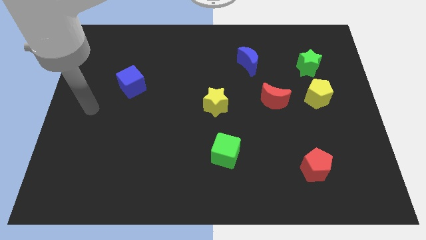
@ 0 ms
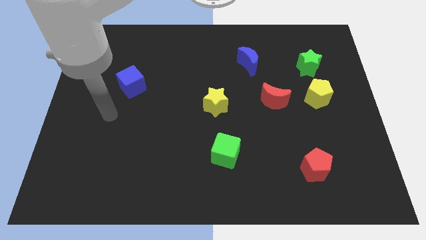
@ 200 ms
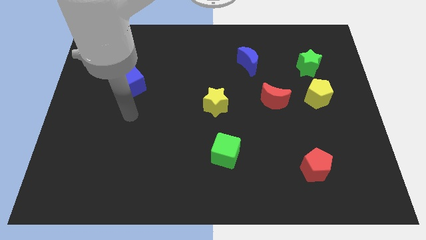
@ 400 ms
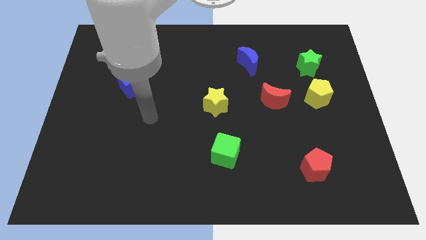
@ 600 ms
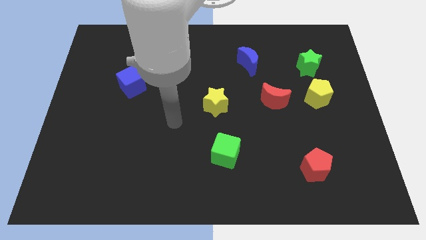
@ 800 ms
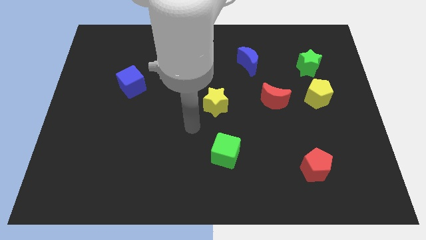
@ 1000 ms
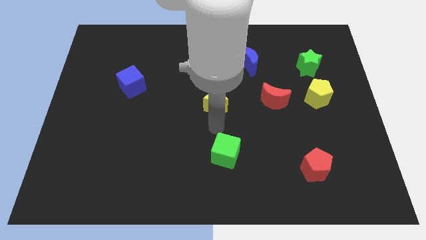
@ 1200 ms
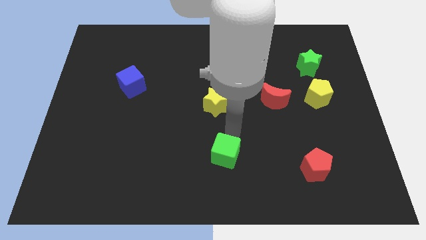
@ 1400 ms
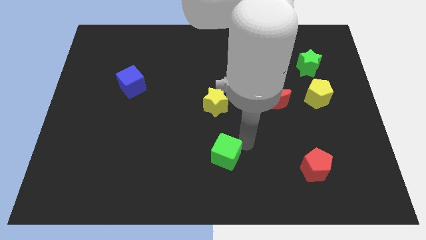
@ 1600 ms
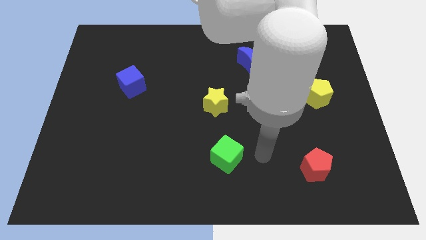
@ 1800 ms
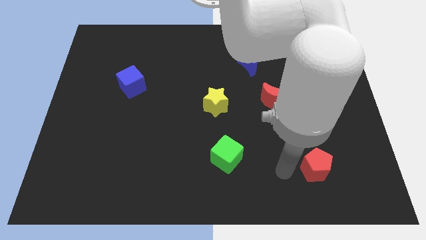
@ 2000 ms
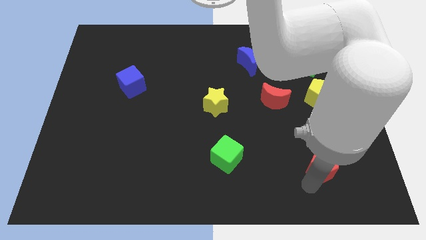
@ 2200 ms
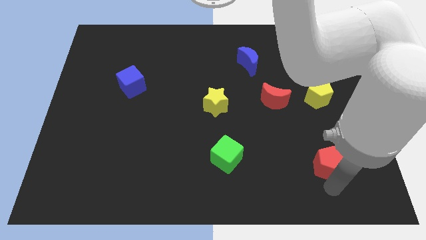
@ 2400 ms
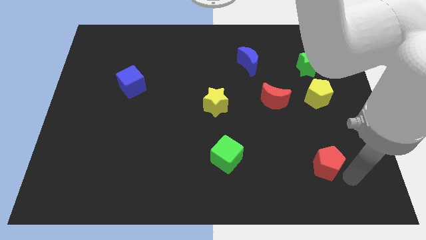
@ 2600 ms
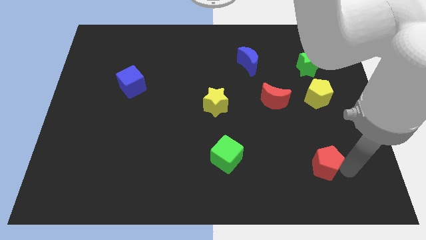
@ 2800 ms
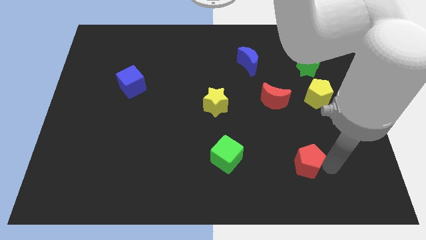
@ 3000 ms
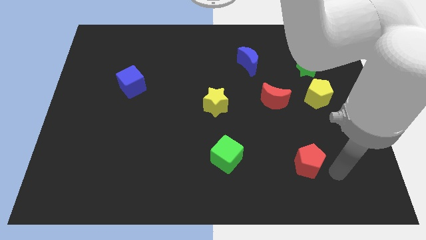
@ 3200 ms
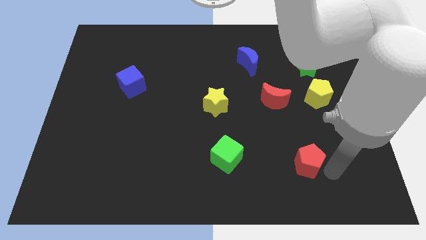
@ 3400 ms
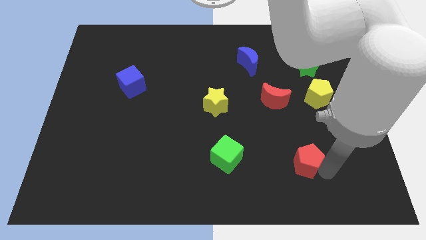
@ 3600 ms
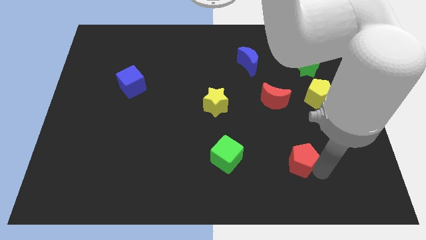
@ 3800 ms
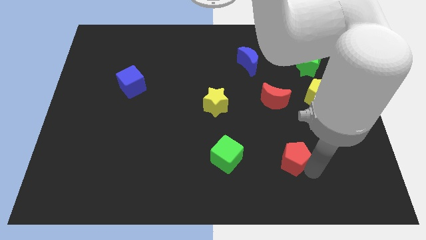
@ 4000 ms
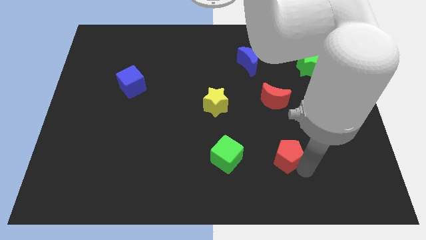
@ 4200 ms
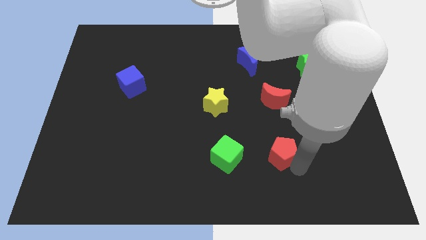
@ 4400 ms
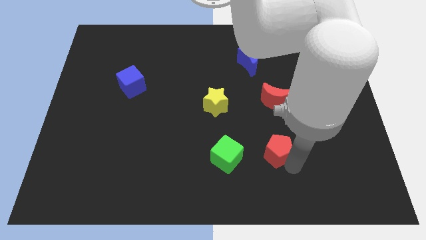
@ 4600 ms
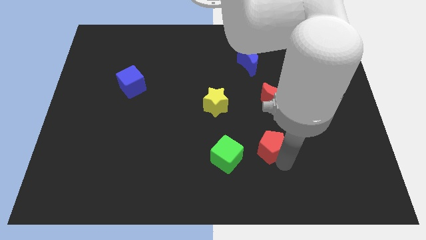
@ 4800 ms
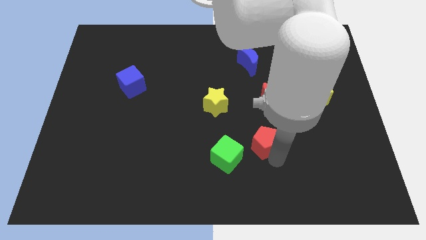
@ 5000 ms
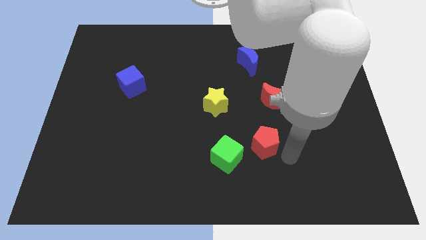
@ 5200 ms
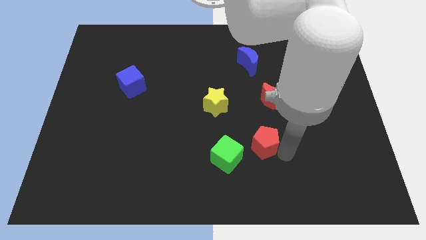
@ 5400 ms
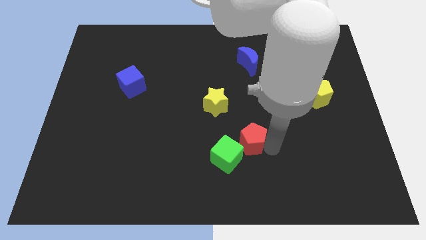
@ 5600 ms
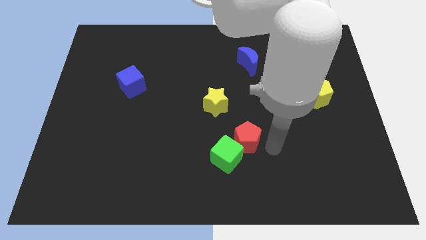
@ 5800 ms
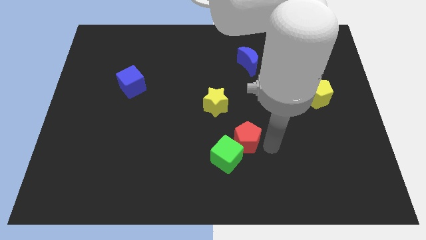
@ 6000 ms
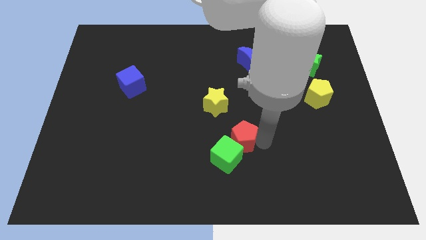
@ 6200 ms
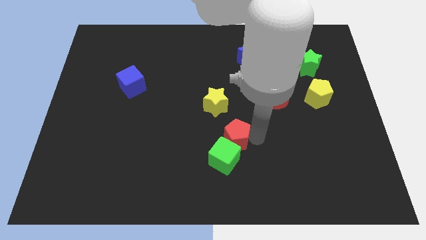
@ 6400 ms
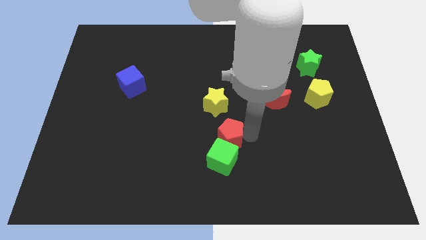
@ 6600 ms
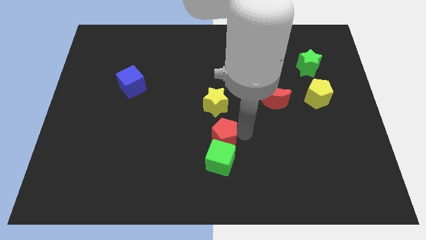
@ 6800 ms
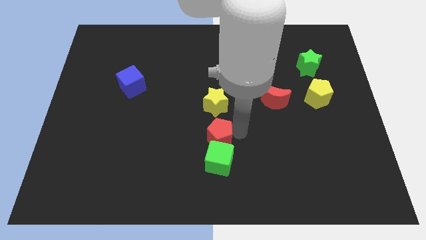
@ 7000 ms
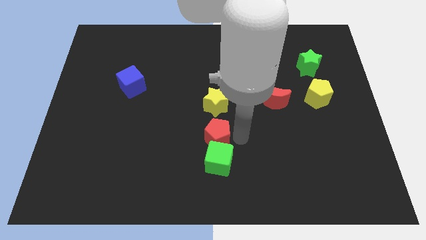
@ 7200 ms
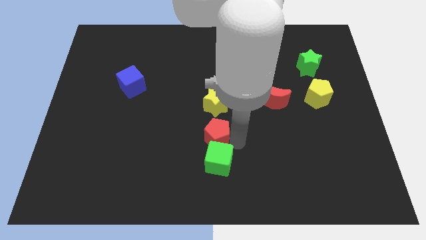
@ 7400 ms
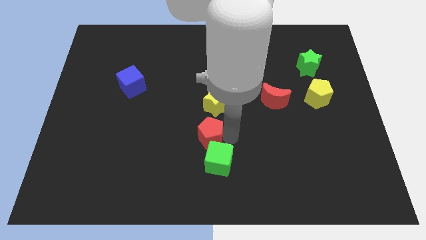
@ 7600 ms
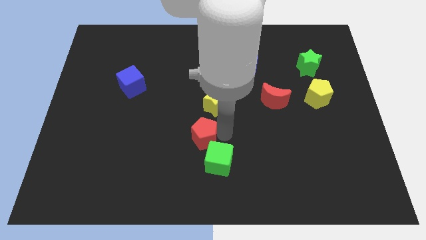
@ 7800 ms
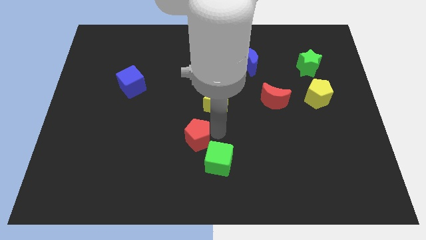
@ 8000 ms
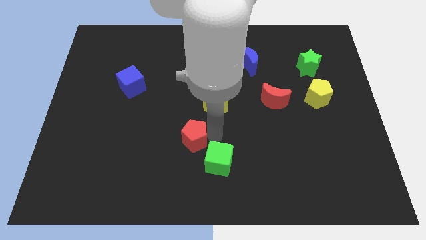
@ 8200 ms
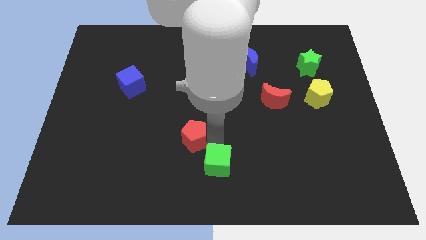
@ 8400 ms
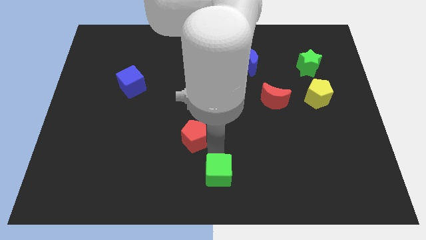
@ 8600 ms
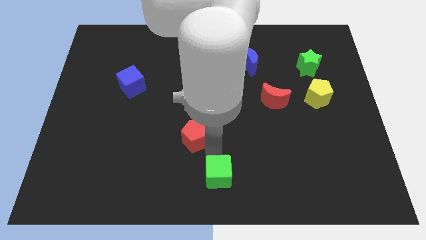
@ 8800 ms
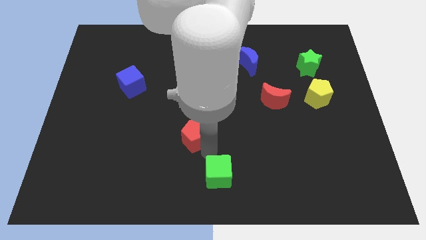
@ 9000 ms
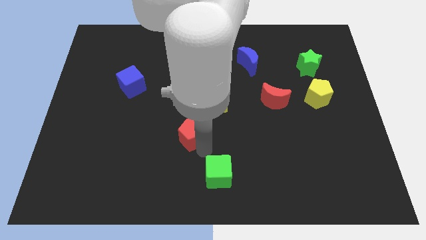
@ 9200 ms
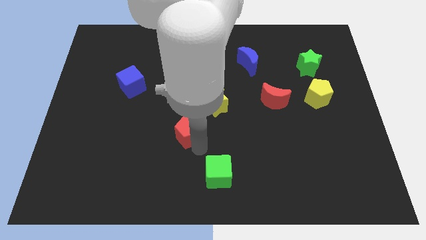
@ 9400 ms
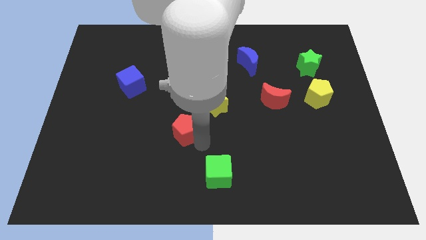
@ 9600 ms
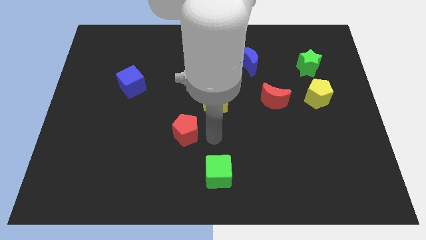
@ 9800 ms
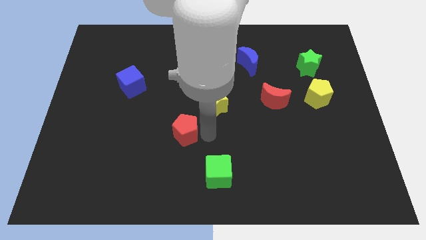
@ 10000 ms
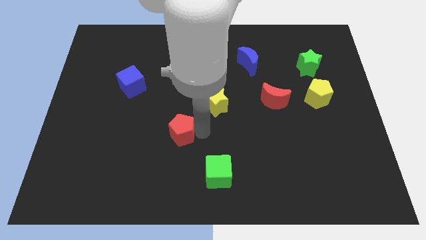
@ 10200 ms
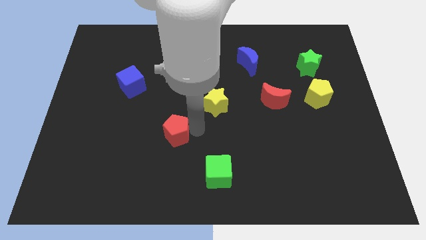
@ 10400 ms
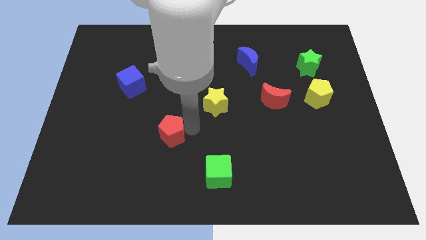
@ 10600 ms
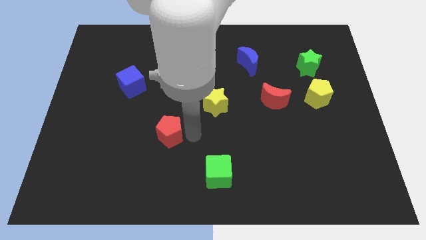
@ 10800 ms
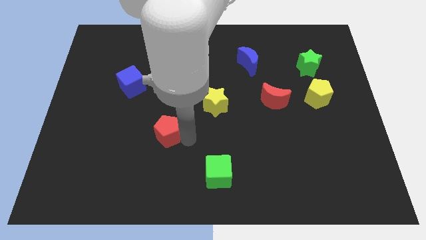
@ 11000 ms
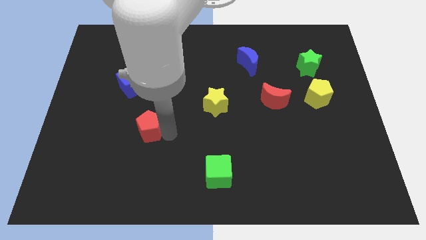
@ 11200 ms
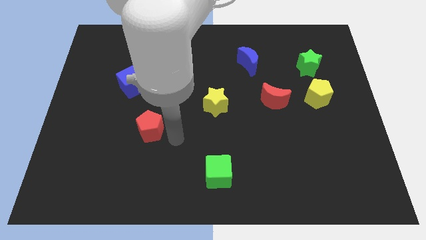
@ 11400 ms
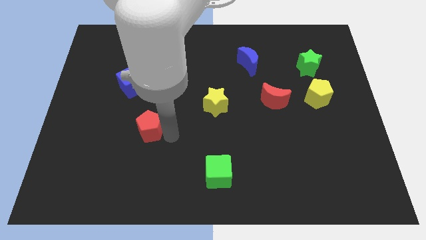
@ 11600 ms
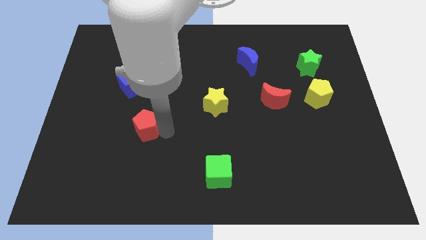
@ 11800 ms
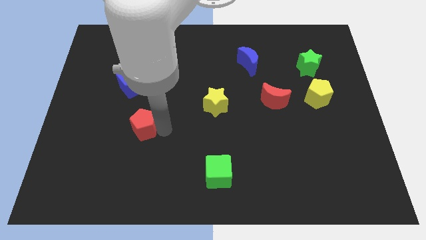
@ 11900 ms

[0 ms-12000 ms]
put the red pentagon to the bottom of the blue cube
